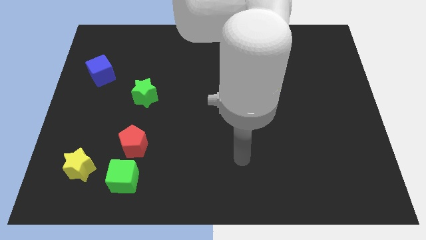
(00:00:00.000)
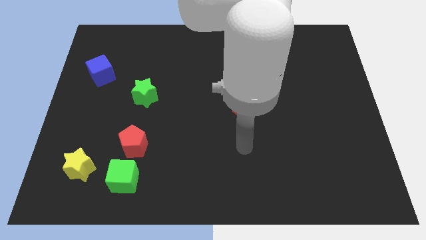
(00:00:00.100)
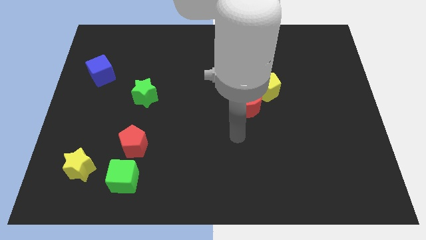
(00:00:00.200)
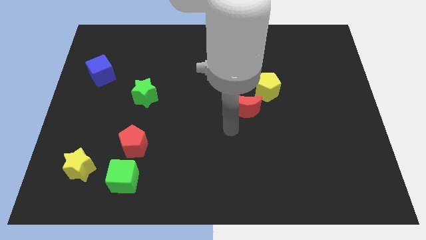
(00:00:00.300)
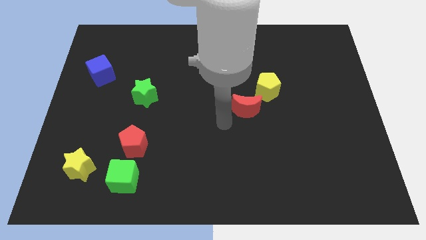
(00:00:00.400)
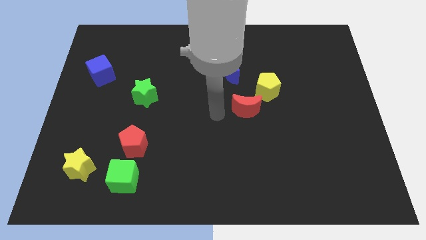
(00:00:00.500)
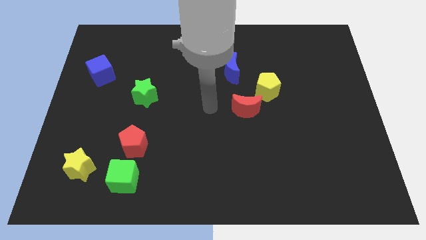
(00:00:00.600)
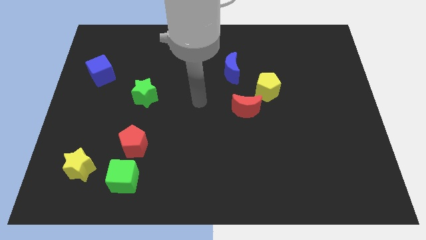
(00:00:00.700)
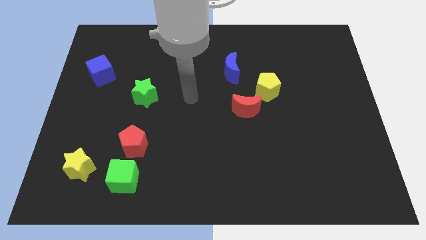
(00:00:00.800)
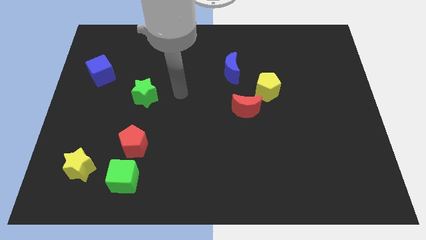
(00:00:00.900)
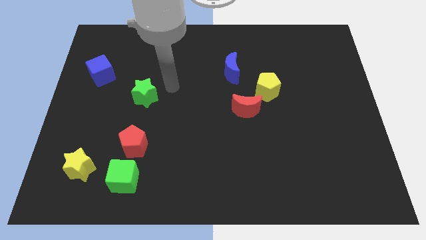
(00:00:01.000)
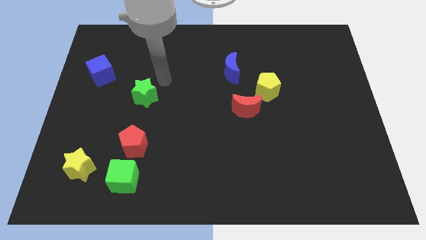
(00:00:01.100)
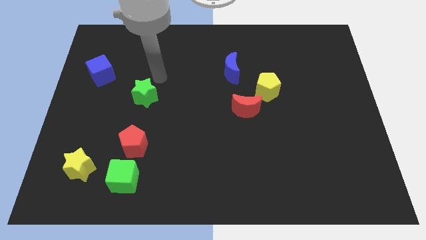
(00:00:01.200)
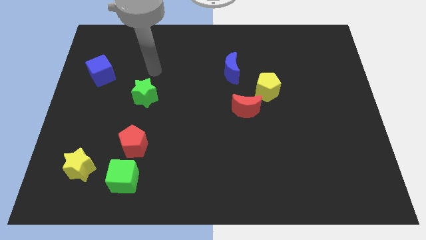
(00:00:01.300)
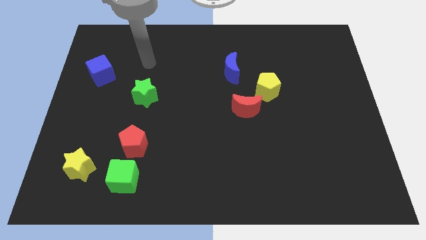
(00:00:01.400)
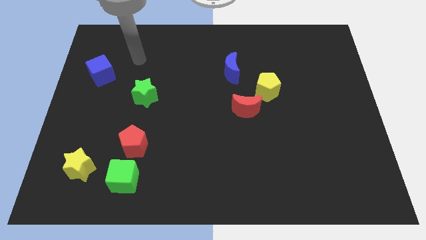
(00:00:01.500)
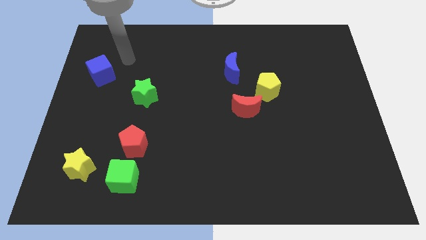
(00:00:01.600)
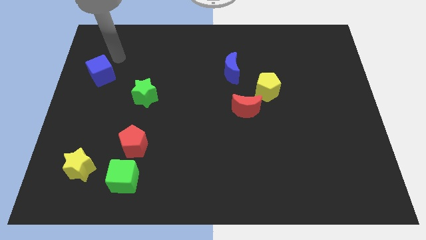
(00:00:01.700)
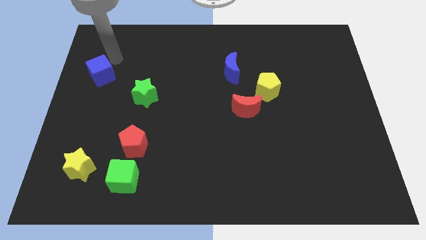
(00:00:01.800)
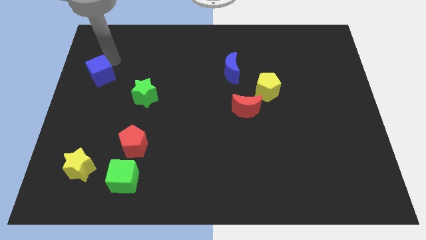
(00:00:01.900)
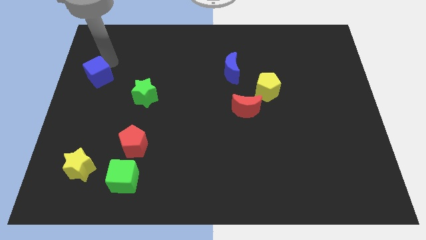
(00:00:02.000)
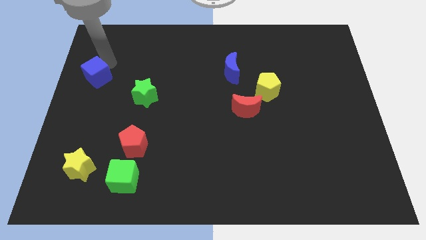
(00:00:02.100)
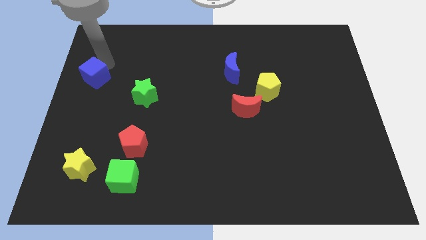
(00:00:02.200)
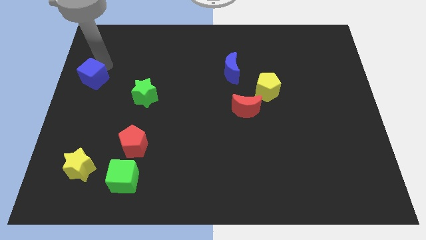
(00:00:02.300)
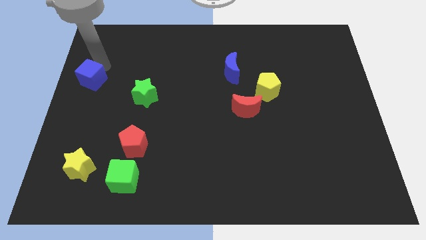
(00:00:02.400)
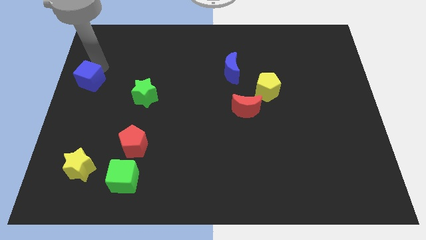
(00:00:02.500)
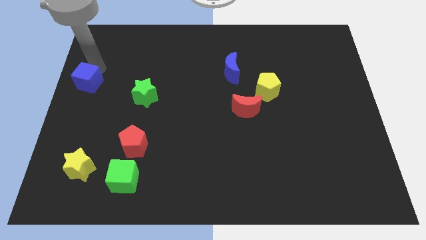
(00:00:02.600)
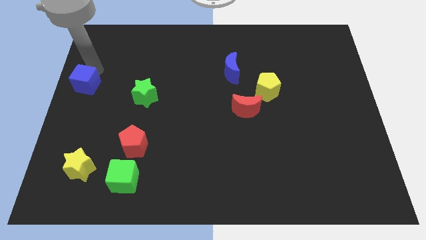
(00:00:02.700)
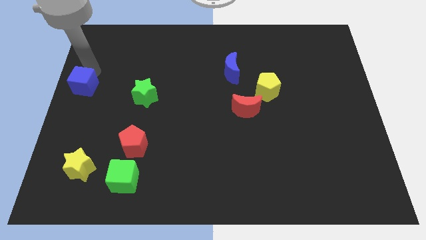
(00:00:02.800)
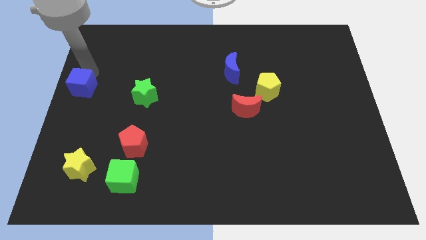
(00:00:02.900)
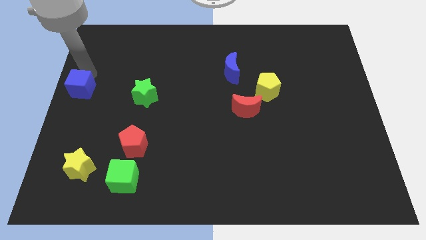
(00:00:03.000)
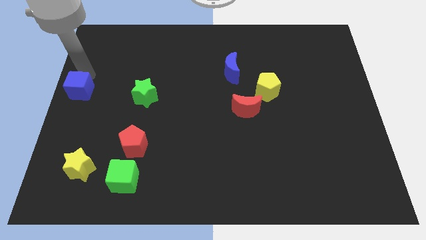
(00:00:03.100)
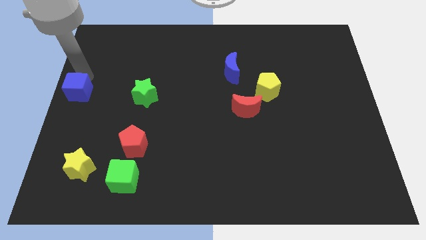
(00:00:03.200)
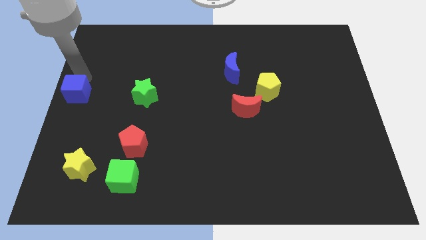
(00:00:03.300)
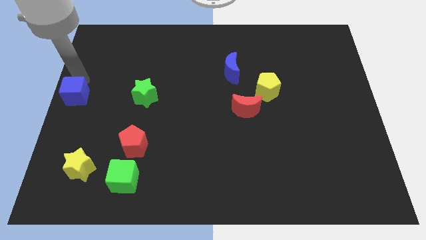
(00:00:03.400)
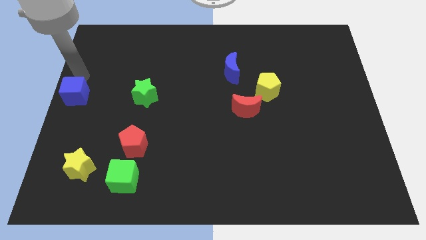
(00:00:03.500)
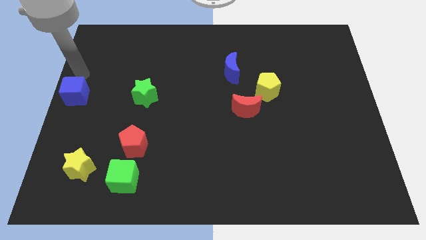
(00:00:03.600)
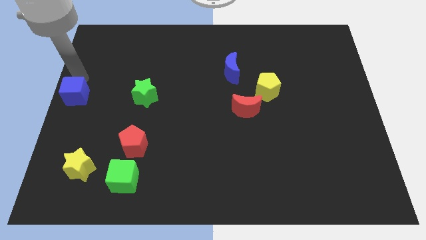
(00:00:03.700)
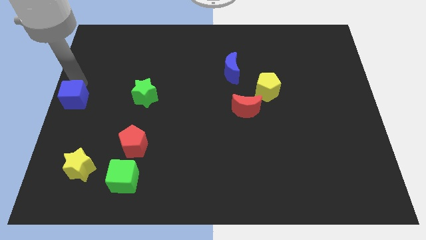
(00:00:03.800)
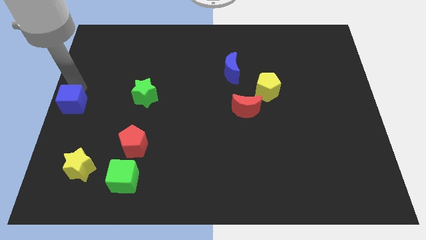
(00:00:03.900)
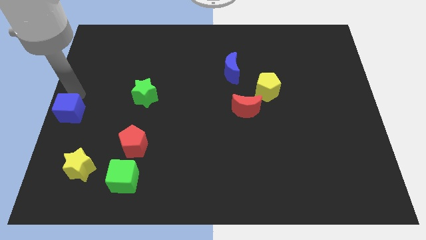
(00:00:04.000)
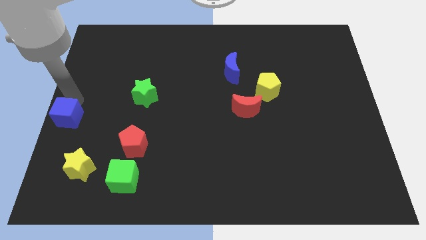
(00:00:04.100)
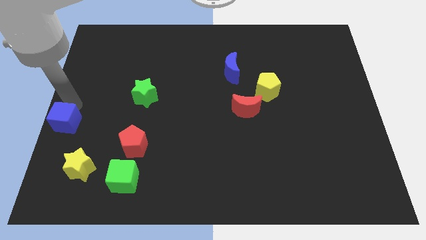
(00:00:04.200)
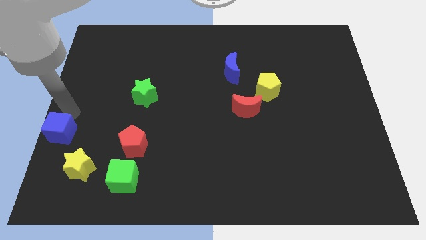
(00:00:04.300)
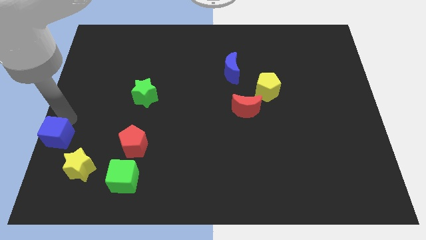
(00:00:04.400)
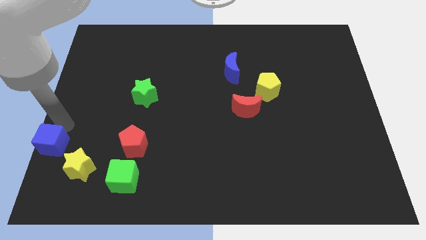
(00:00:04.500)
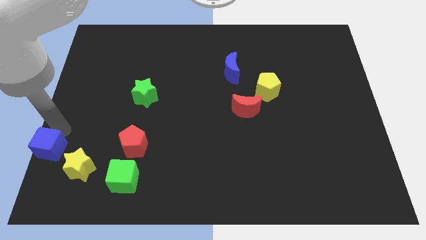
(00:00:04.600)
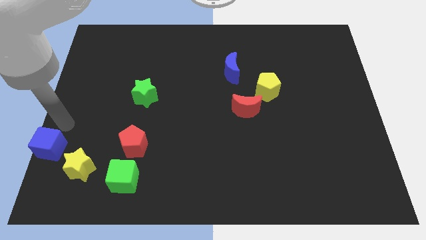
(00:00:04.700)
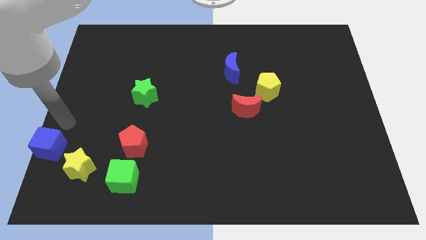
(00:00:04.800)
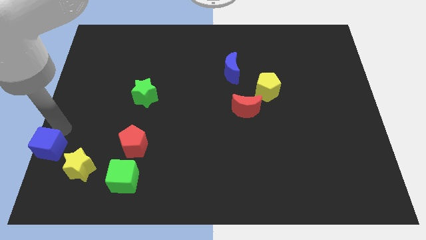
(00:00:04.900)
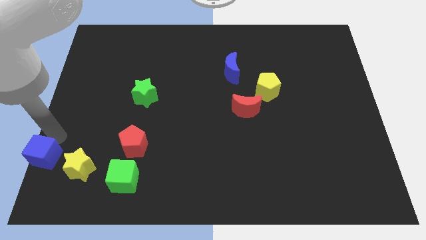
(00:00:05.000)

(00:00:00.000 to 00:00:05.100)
move the blue cube to the bottom left

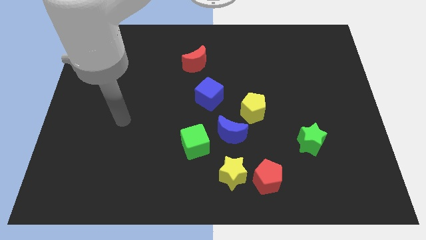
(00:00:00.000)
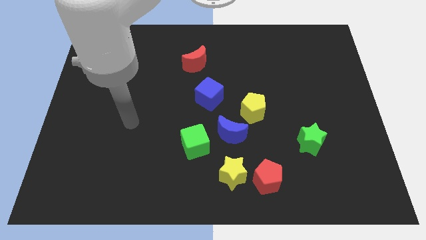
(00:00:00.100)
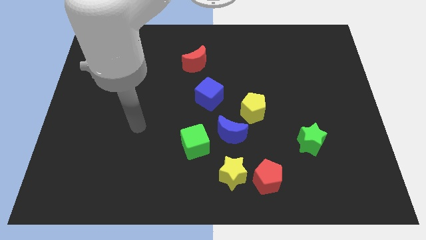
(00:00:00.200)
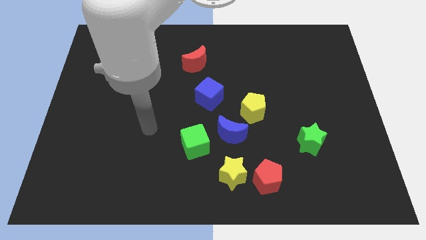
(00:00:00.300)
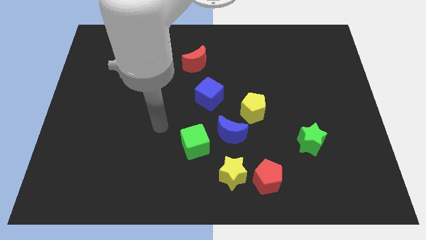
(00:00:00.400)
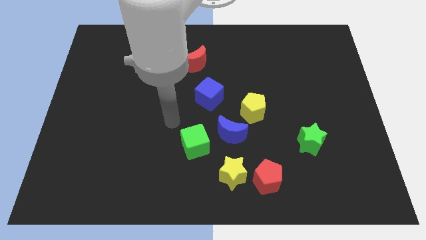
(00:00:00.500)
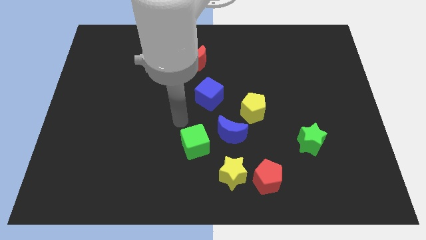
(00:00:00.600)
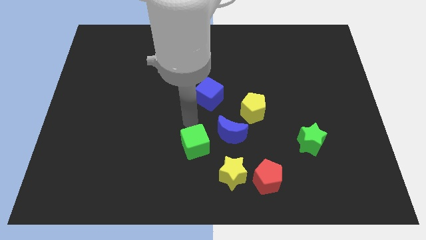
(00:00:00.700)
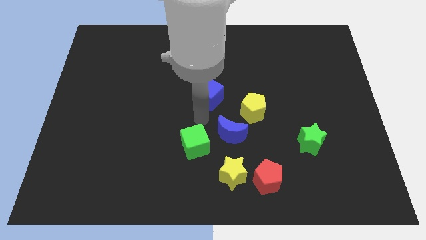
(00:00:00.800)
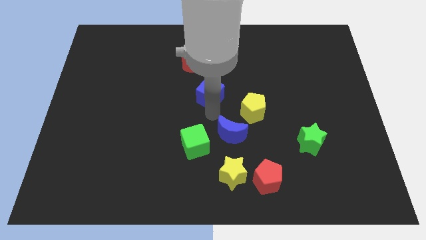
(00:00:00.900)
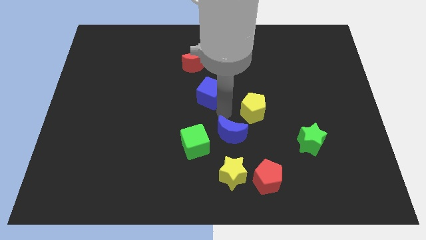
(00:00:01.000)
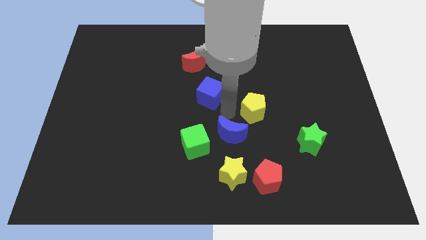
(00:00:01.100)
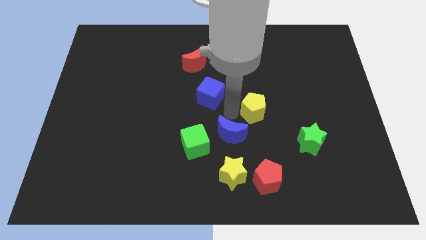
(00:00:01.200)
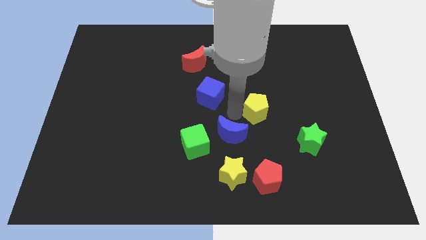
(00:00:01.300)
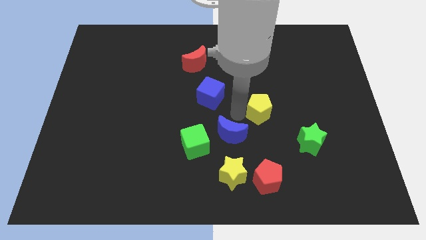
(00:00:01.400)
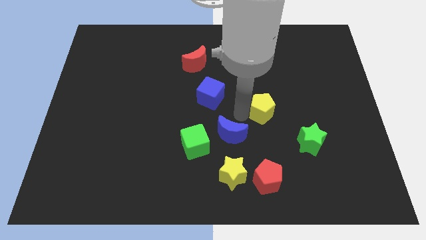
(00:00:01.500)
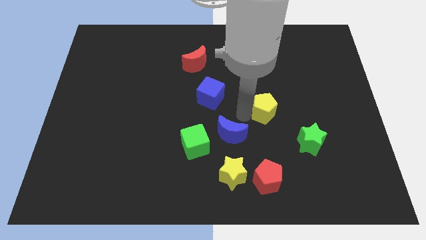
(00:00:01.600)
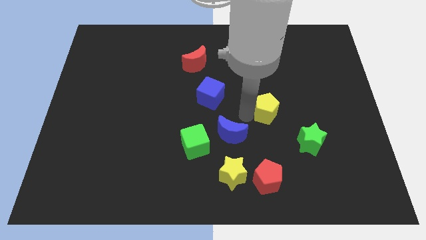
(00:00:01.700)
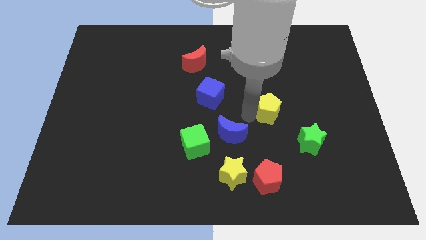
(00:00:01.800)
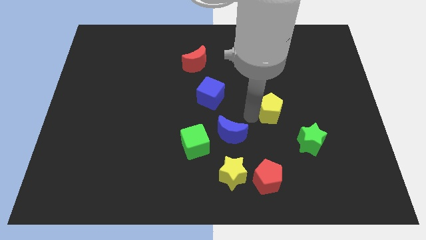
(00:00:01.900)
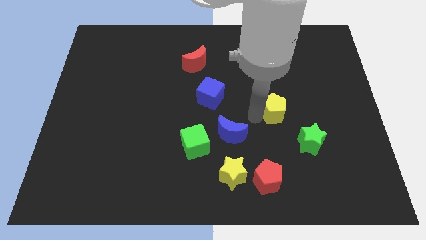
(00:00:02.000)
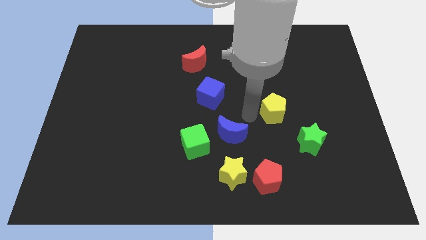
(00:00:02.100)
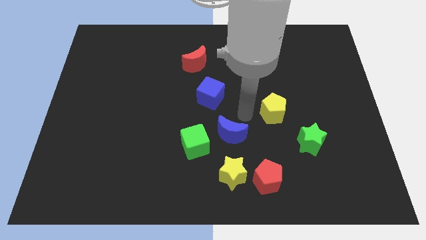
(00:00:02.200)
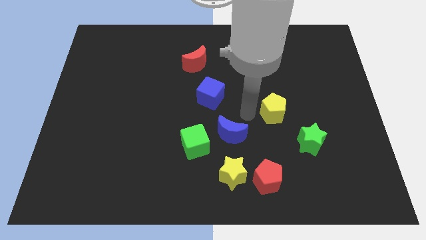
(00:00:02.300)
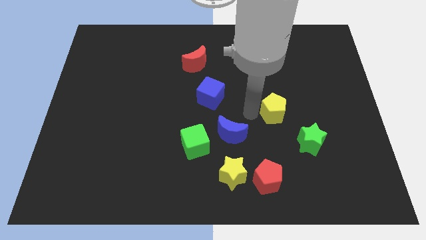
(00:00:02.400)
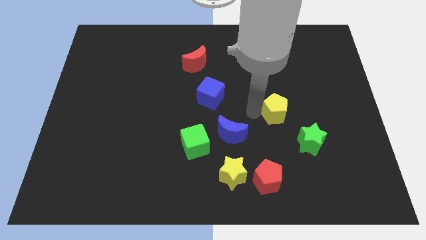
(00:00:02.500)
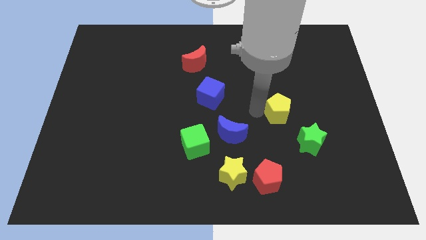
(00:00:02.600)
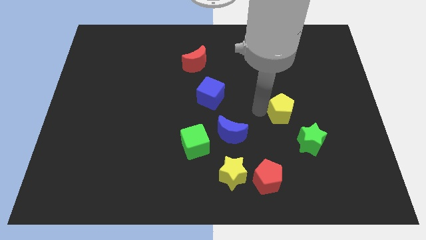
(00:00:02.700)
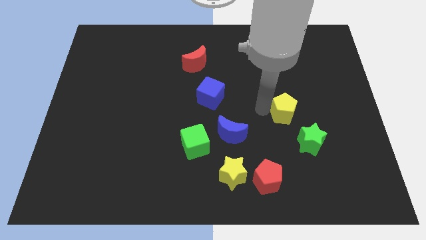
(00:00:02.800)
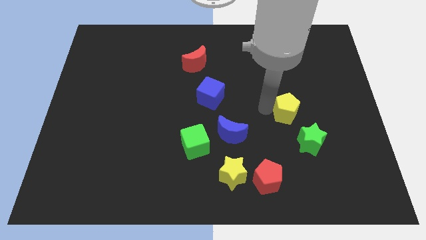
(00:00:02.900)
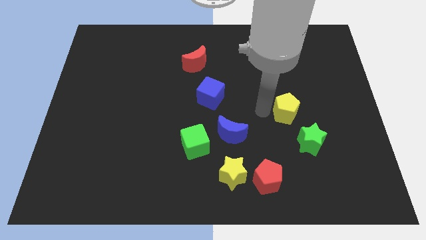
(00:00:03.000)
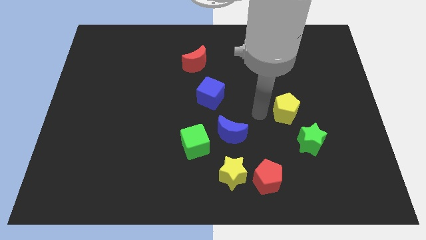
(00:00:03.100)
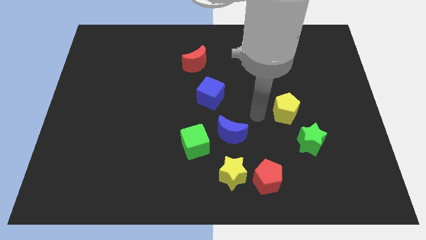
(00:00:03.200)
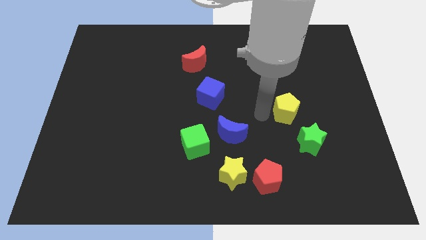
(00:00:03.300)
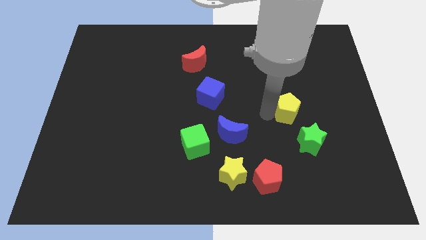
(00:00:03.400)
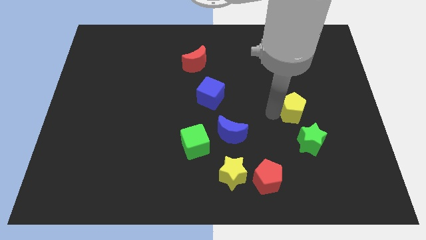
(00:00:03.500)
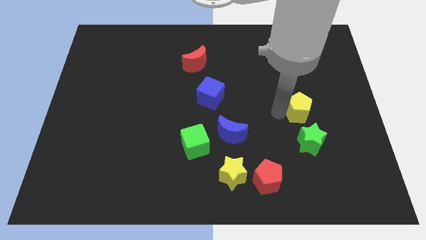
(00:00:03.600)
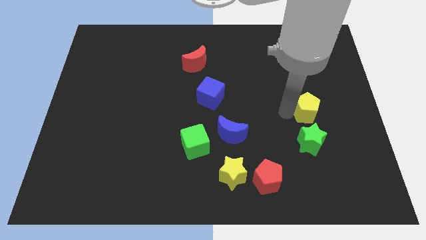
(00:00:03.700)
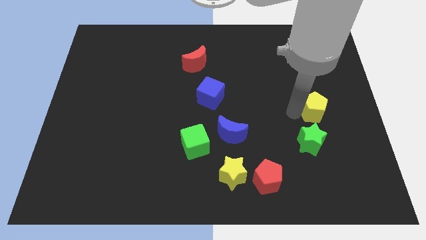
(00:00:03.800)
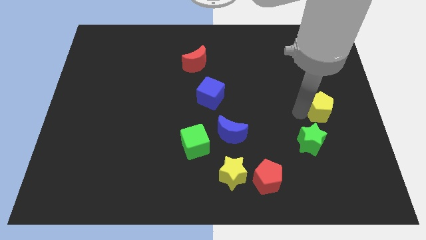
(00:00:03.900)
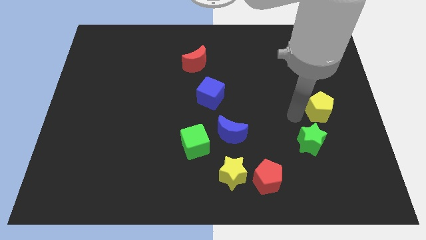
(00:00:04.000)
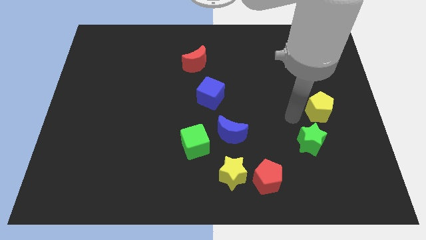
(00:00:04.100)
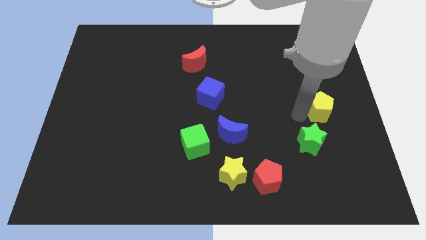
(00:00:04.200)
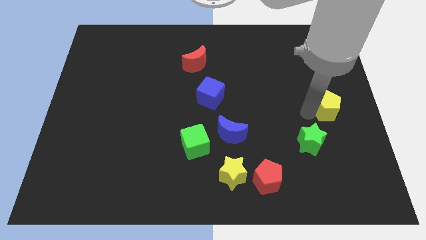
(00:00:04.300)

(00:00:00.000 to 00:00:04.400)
move the yellow pentagon to the right side
